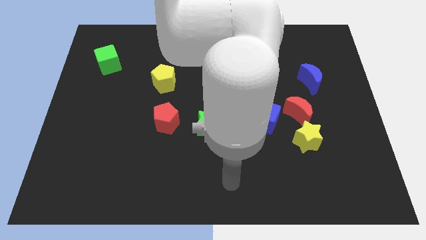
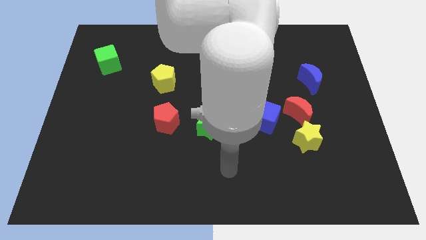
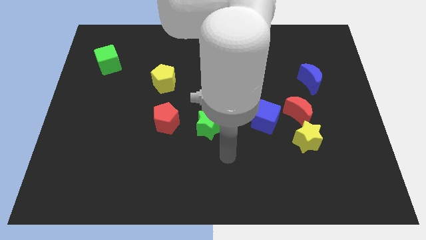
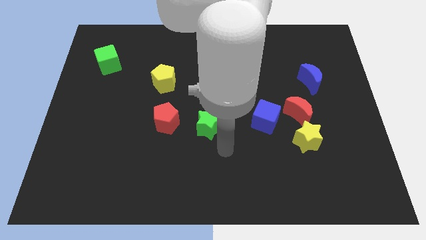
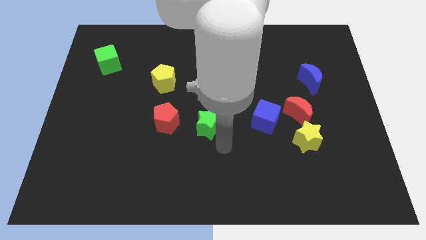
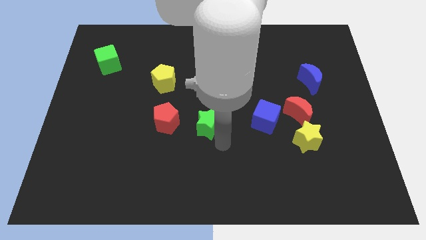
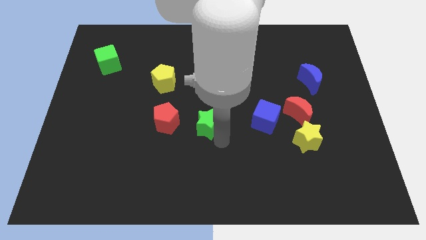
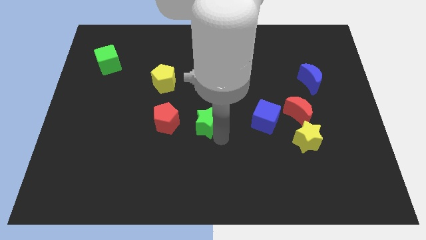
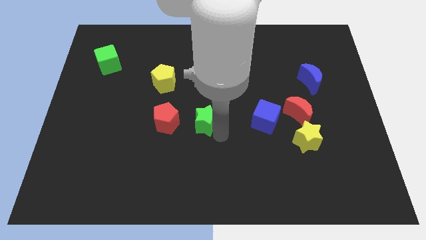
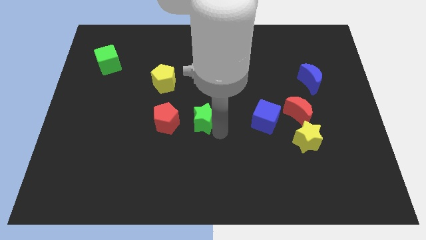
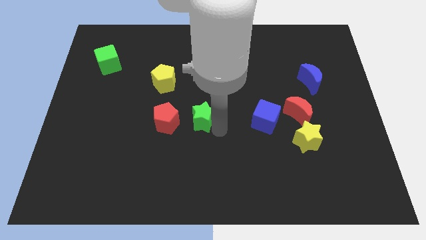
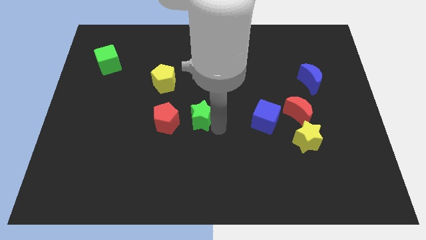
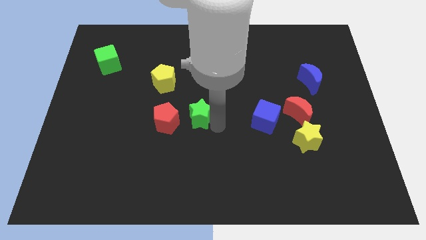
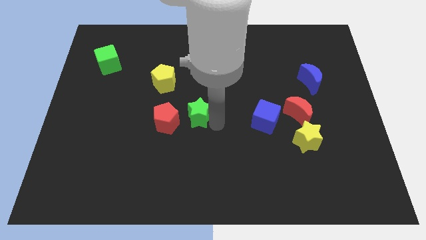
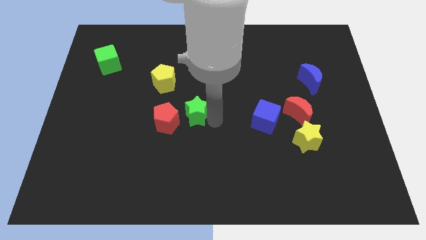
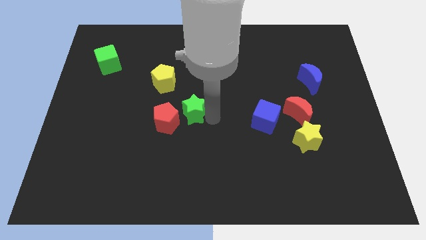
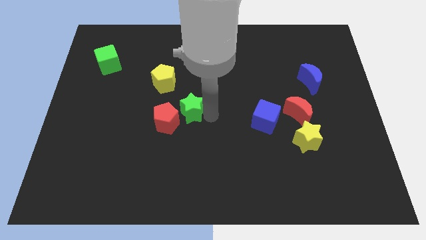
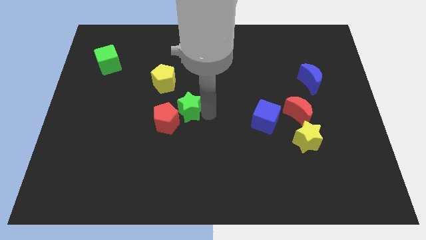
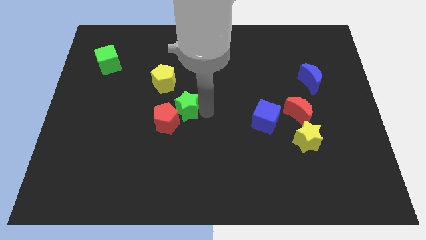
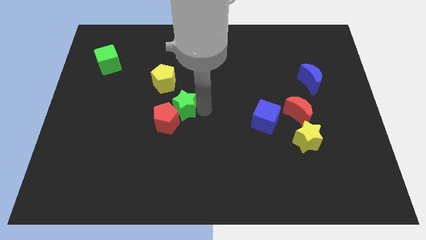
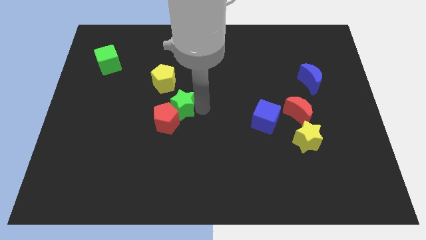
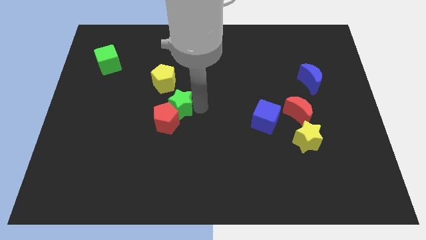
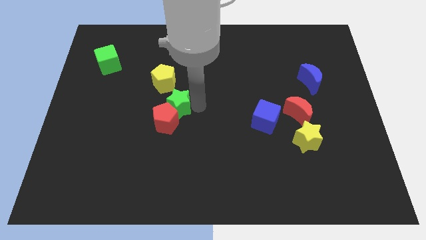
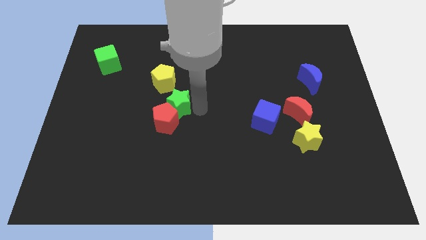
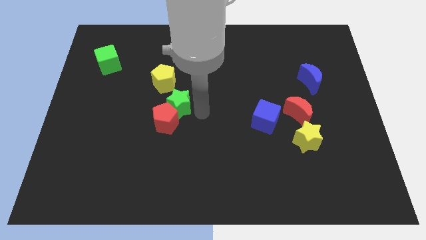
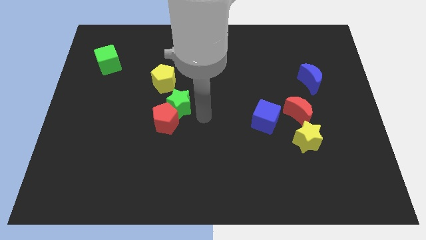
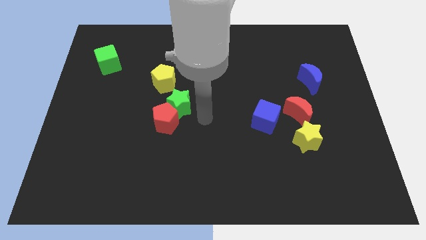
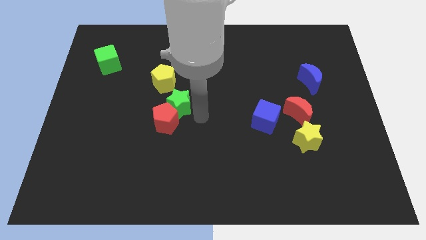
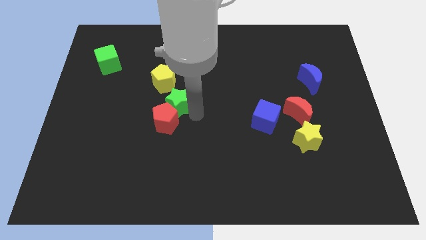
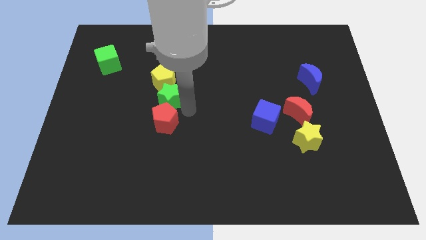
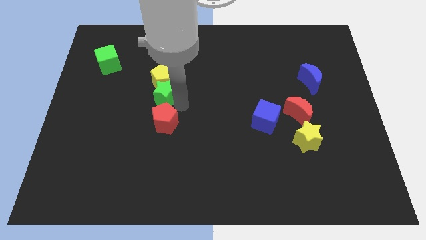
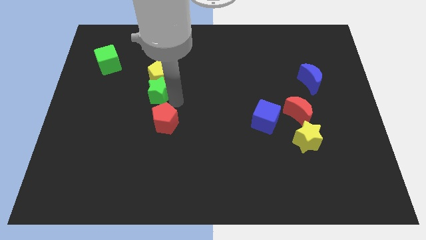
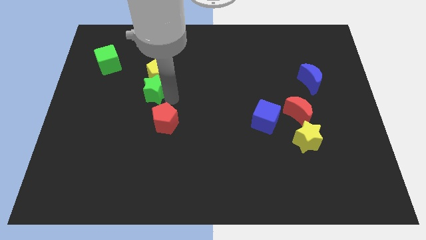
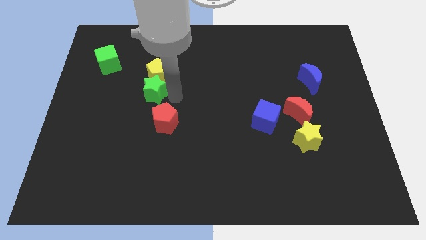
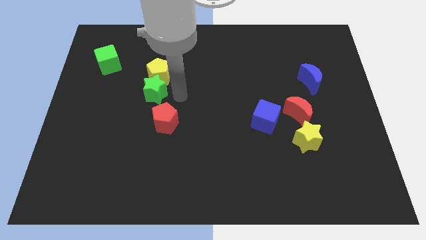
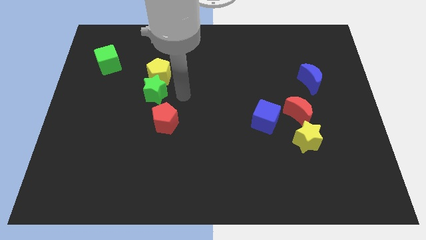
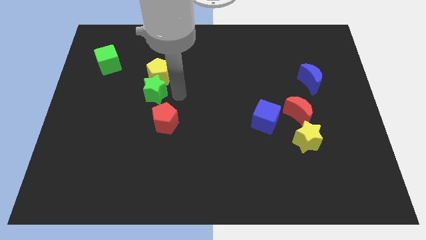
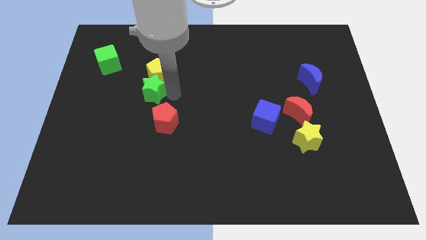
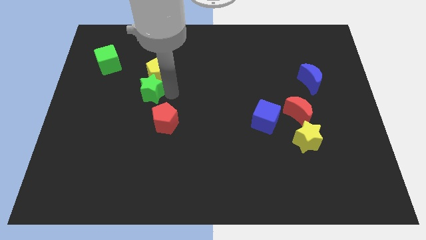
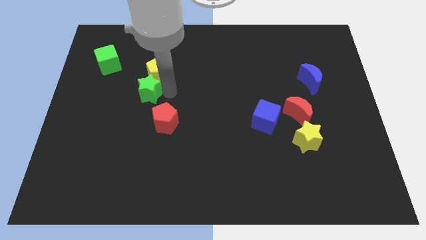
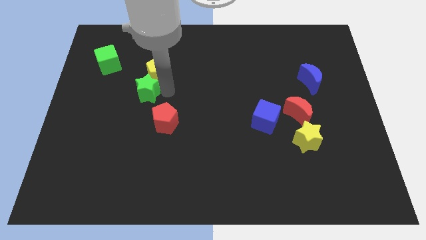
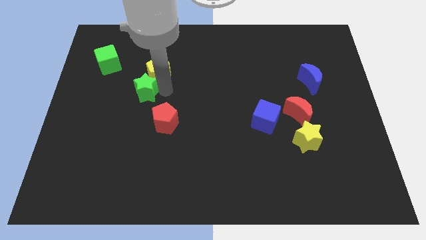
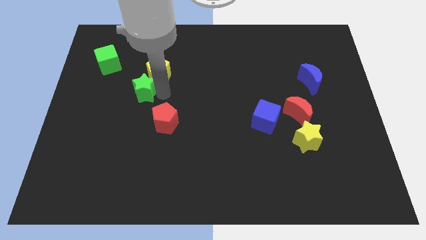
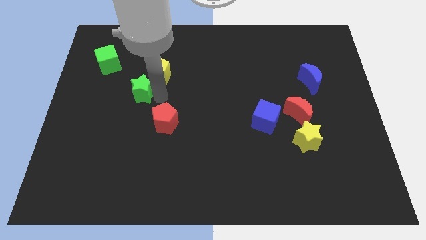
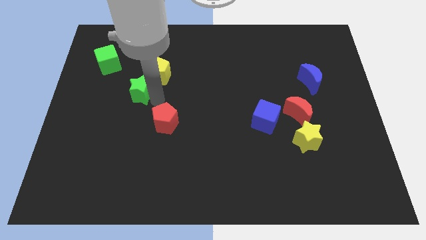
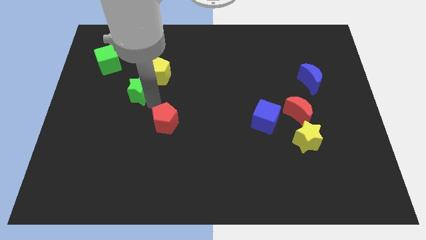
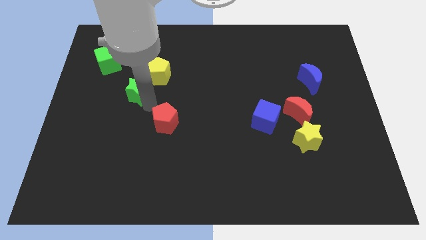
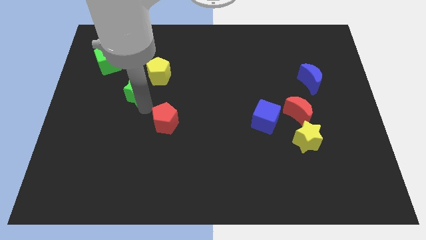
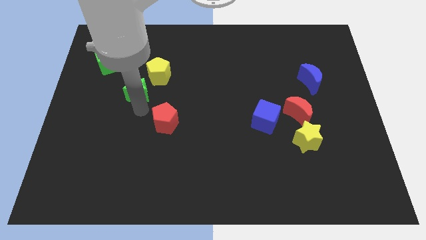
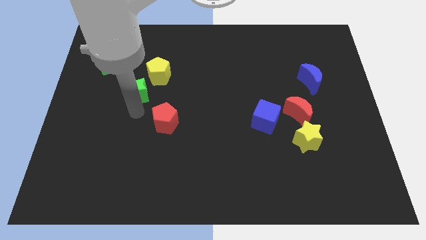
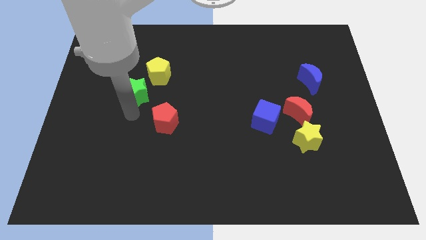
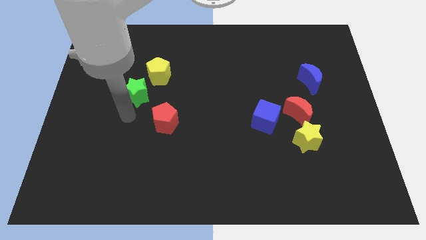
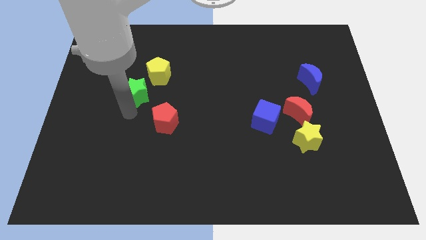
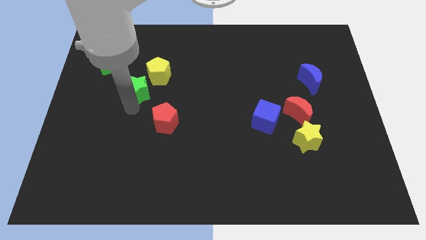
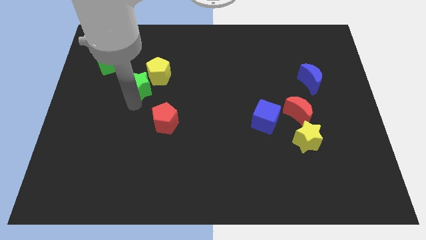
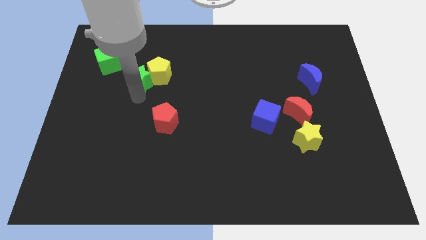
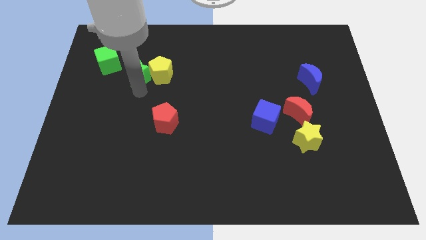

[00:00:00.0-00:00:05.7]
move the green star just right of the green cube
